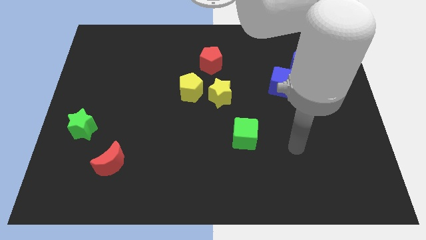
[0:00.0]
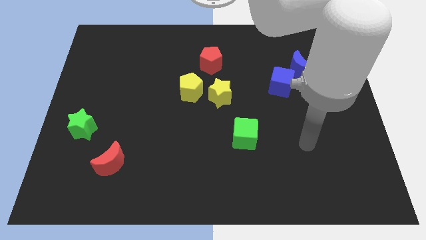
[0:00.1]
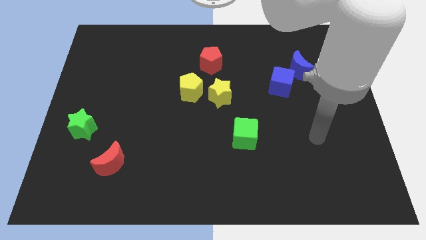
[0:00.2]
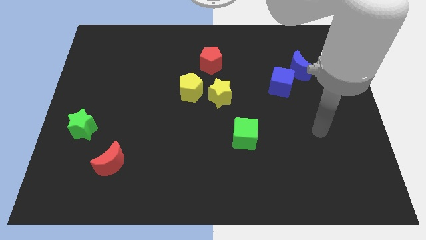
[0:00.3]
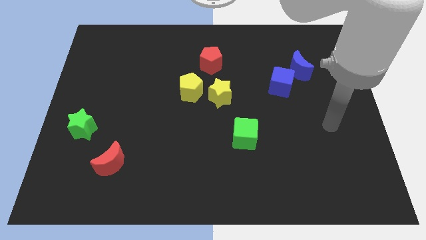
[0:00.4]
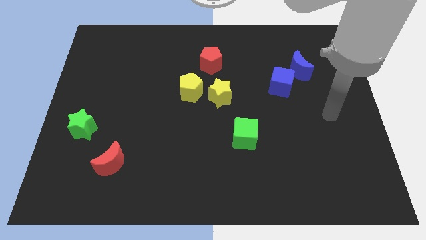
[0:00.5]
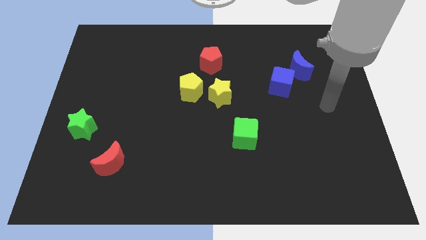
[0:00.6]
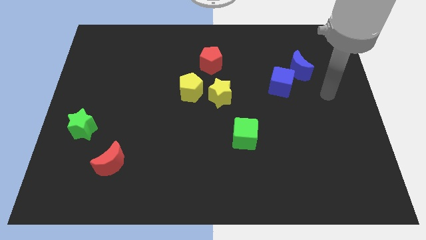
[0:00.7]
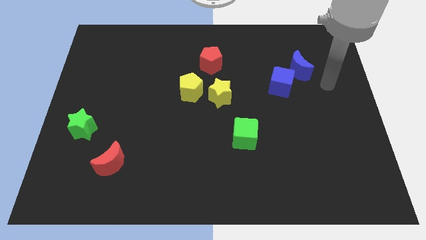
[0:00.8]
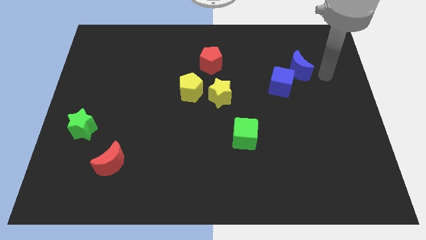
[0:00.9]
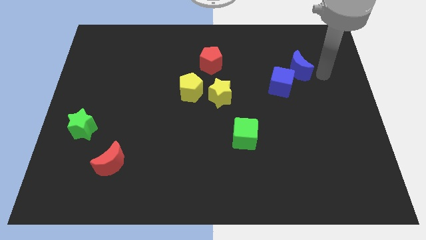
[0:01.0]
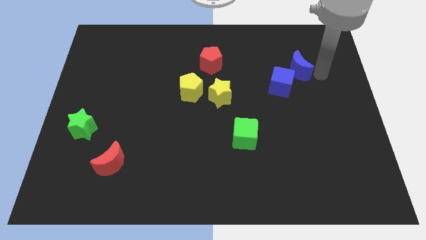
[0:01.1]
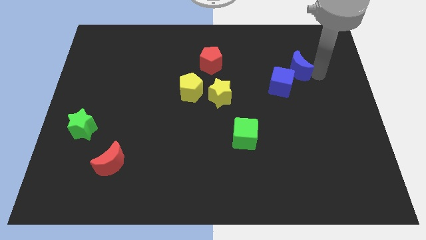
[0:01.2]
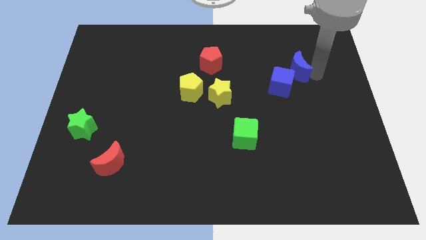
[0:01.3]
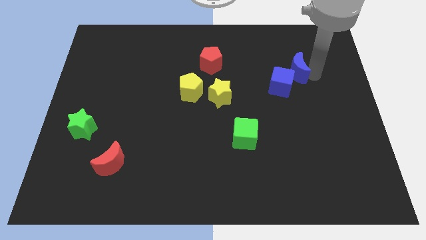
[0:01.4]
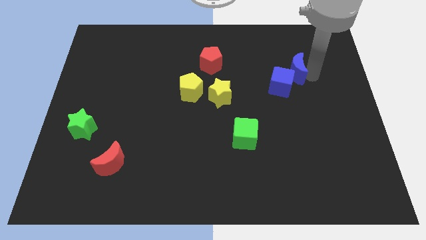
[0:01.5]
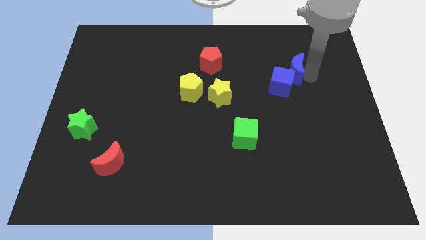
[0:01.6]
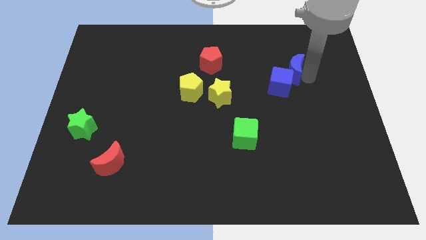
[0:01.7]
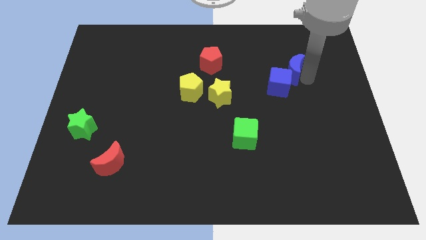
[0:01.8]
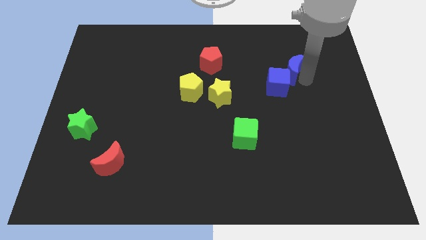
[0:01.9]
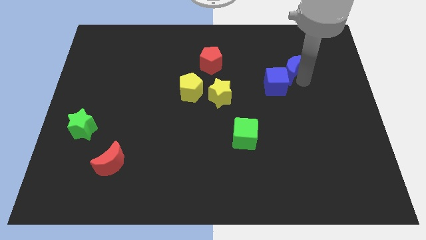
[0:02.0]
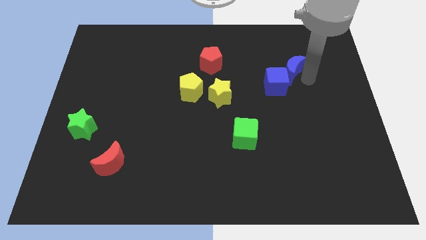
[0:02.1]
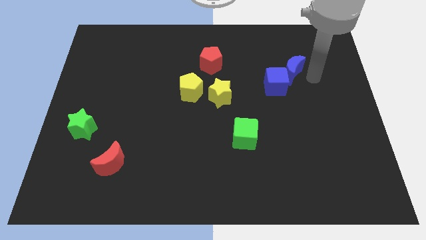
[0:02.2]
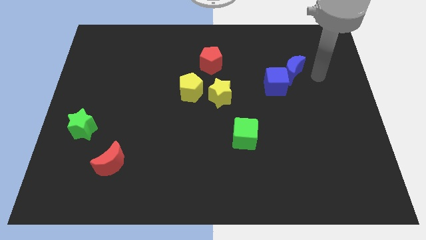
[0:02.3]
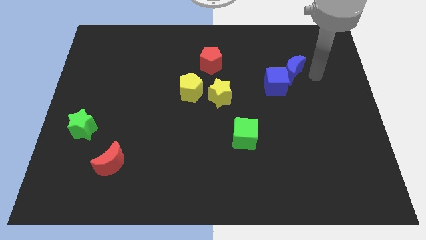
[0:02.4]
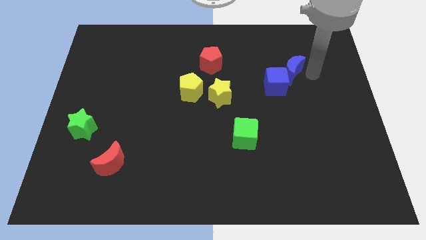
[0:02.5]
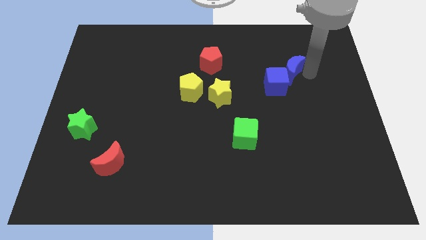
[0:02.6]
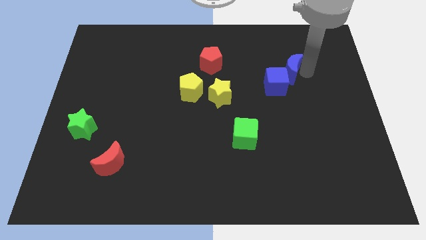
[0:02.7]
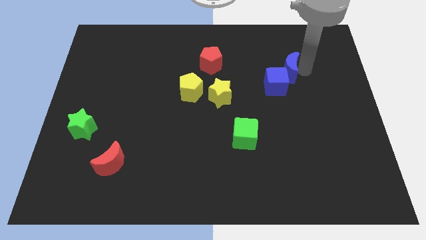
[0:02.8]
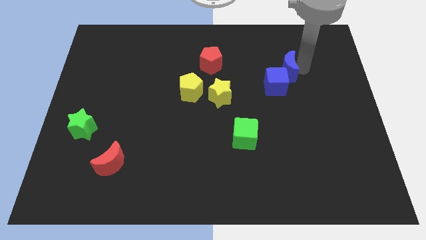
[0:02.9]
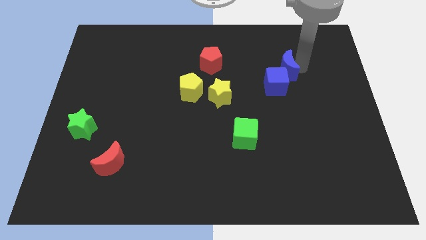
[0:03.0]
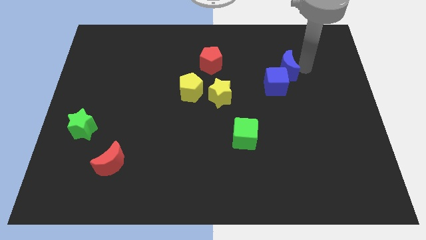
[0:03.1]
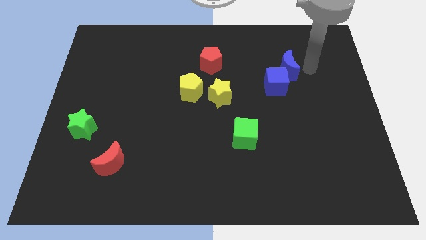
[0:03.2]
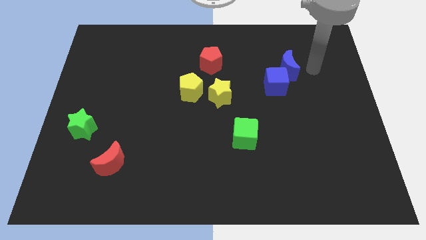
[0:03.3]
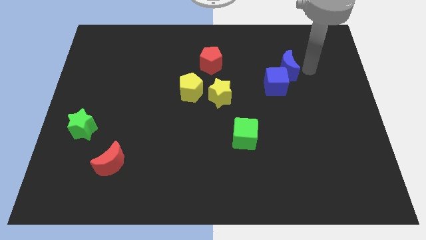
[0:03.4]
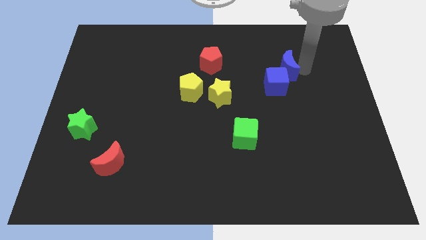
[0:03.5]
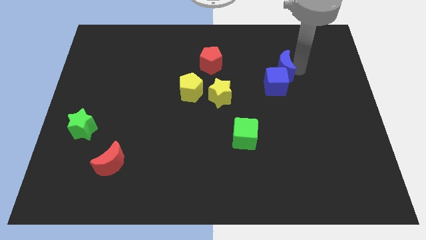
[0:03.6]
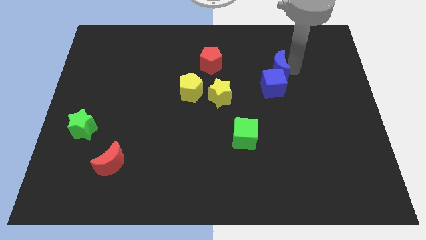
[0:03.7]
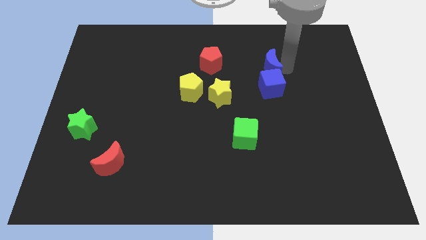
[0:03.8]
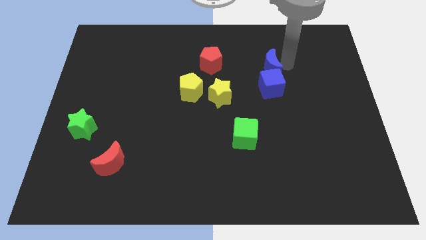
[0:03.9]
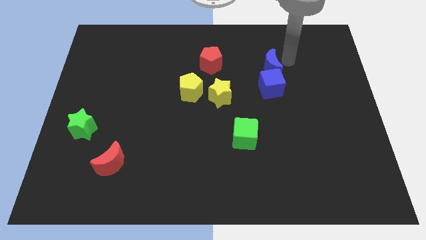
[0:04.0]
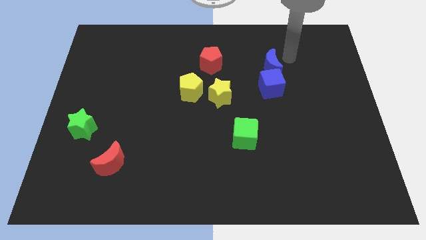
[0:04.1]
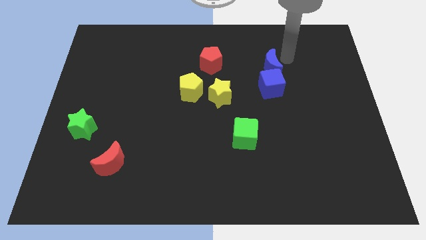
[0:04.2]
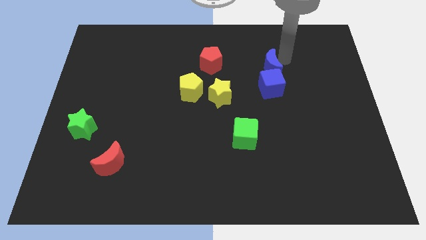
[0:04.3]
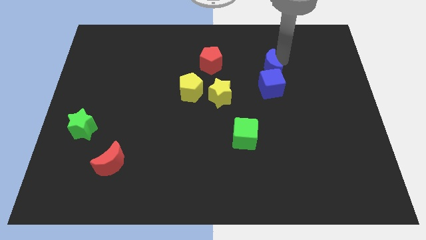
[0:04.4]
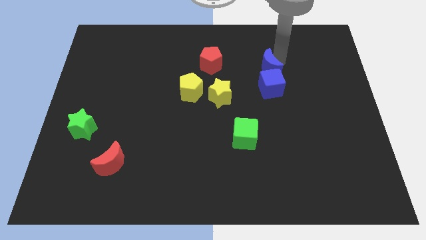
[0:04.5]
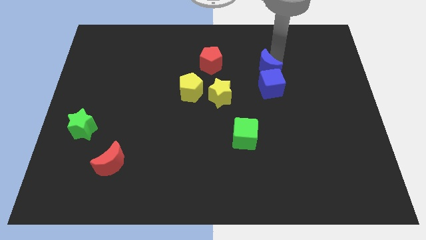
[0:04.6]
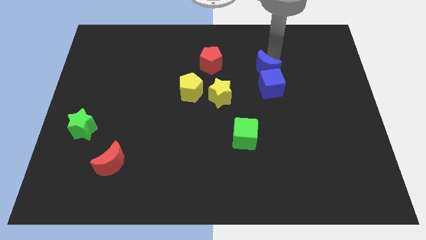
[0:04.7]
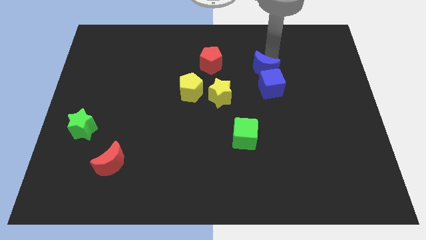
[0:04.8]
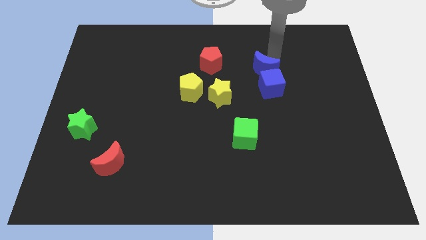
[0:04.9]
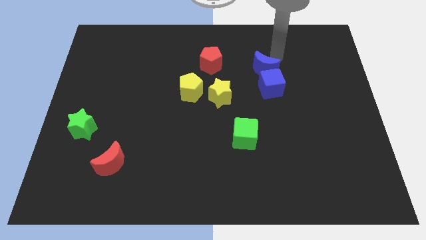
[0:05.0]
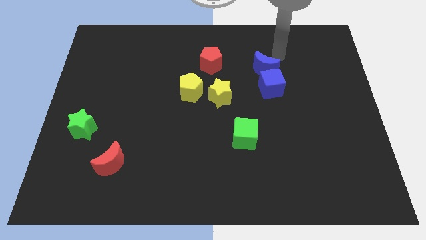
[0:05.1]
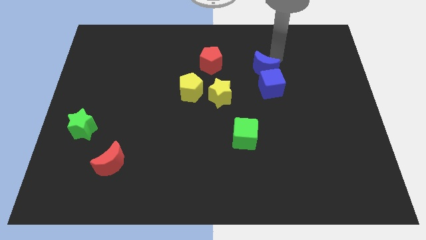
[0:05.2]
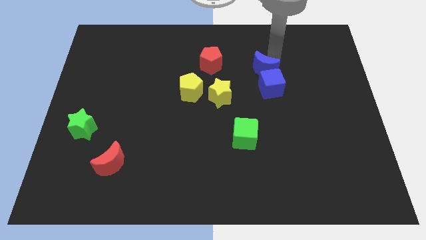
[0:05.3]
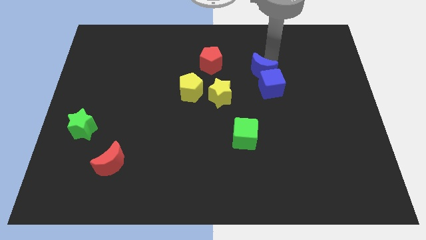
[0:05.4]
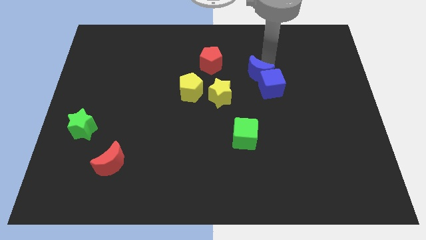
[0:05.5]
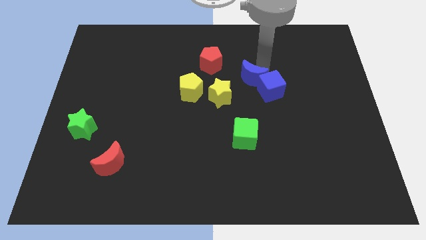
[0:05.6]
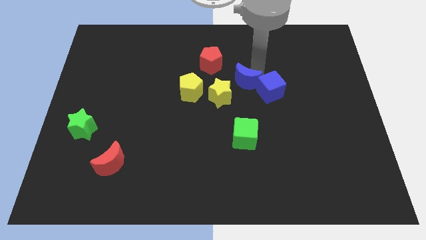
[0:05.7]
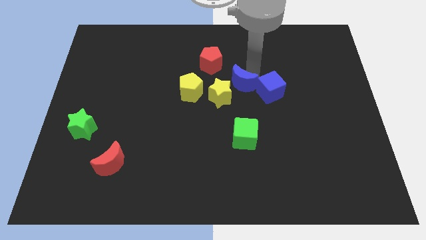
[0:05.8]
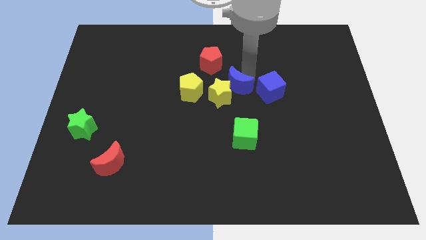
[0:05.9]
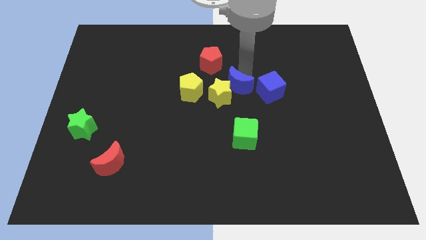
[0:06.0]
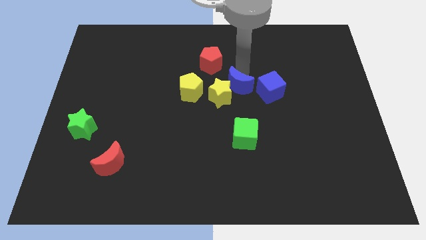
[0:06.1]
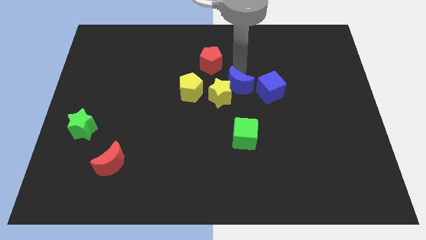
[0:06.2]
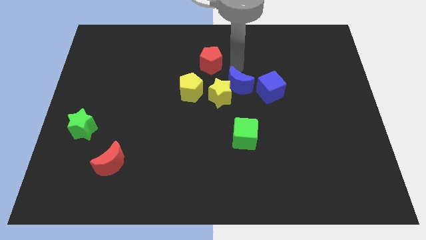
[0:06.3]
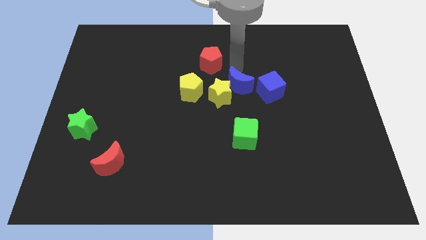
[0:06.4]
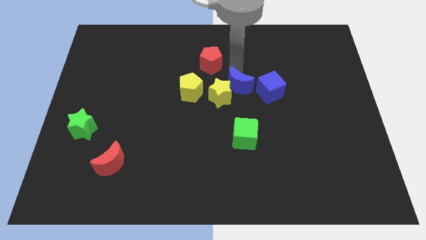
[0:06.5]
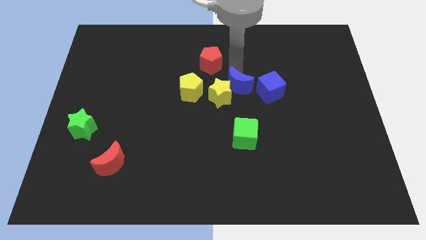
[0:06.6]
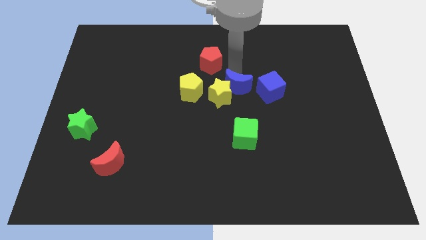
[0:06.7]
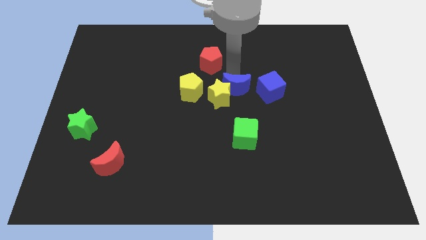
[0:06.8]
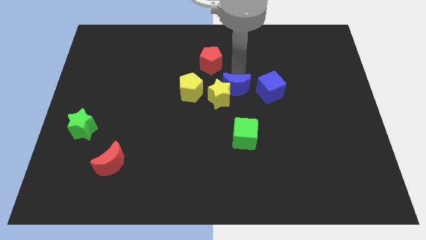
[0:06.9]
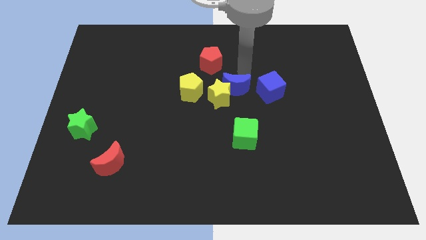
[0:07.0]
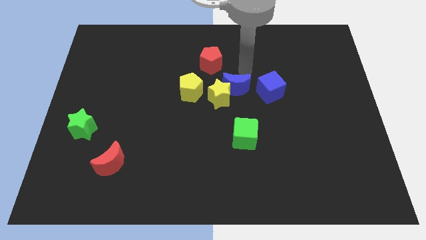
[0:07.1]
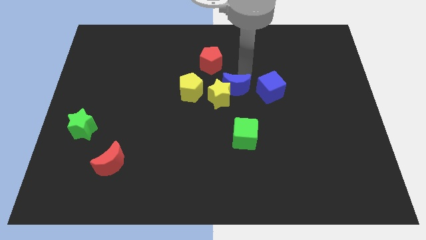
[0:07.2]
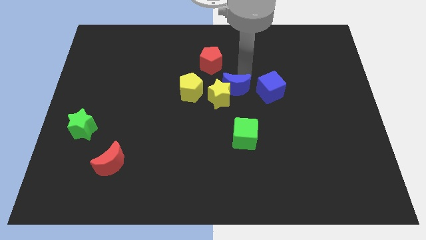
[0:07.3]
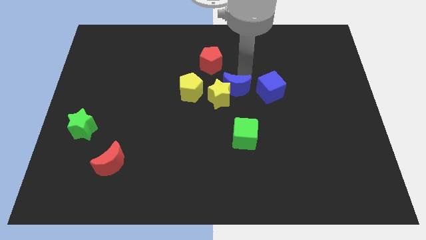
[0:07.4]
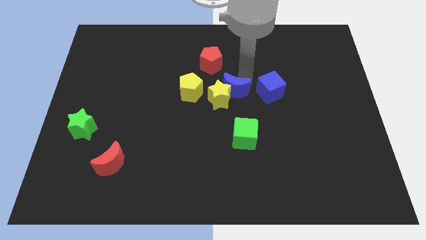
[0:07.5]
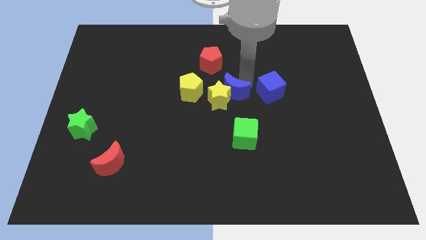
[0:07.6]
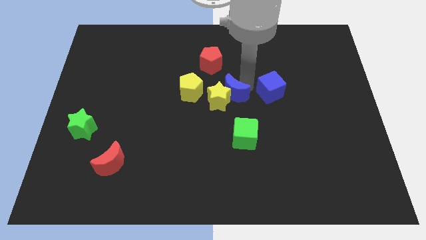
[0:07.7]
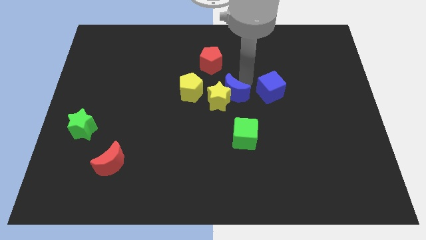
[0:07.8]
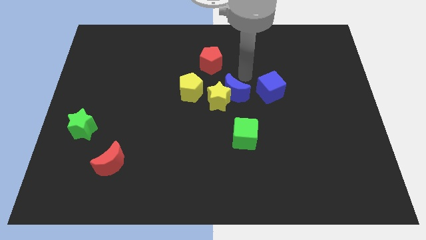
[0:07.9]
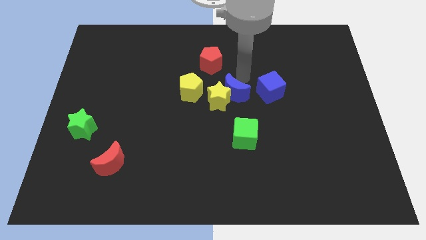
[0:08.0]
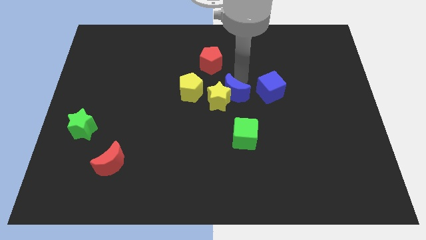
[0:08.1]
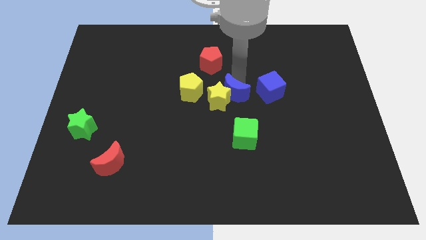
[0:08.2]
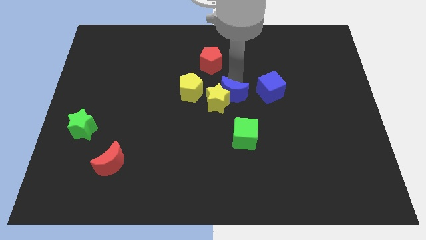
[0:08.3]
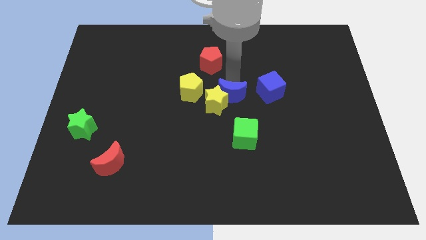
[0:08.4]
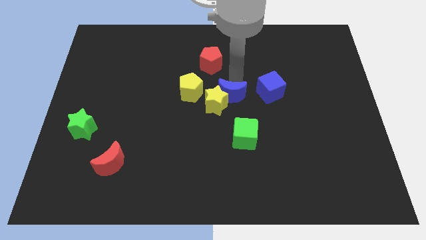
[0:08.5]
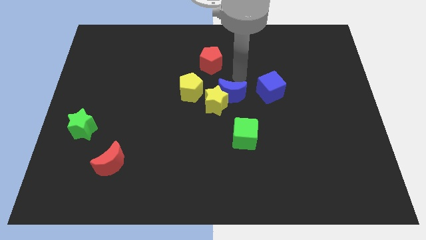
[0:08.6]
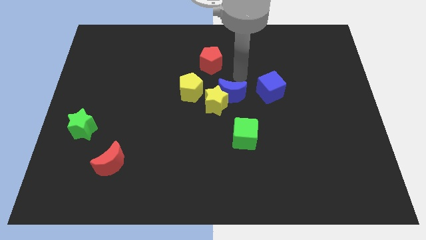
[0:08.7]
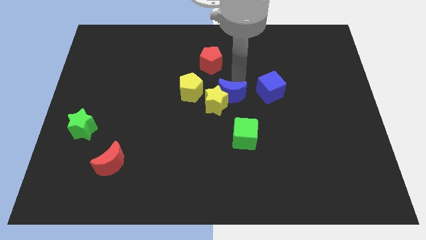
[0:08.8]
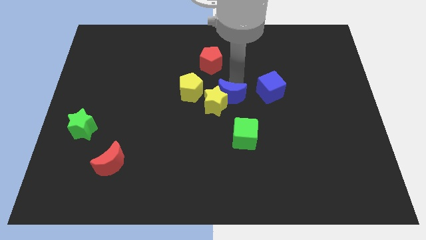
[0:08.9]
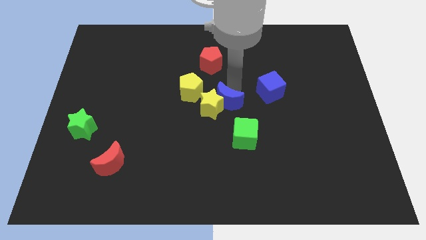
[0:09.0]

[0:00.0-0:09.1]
move the blue moon to the top left of the green cube
